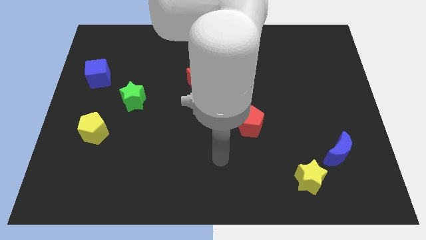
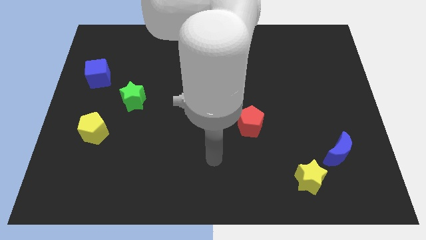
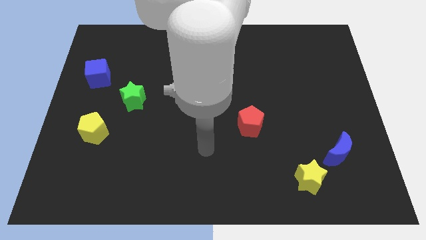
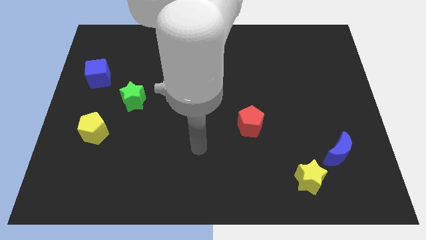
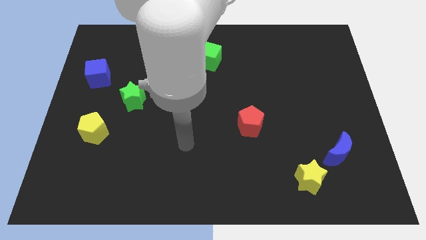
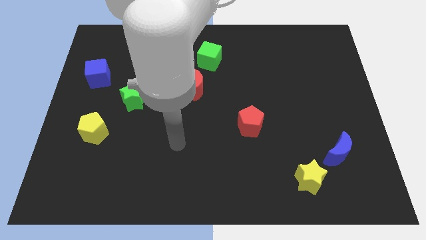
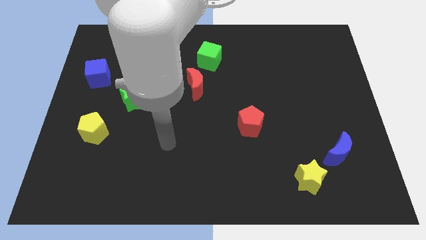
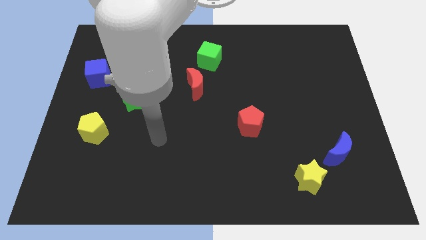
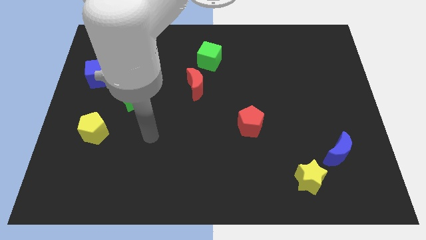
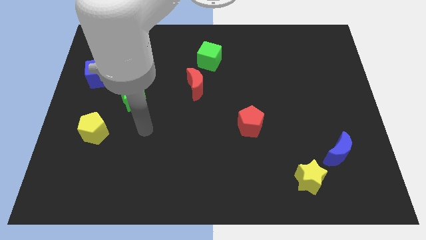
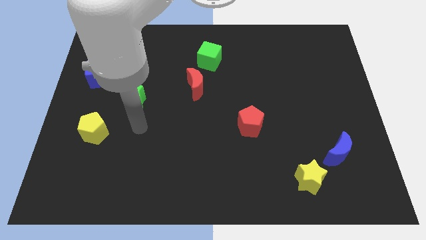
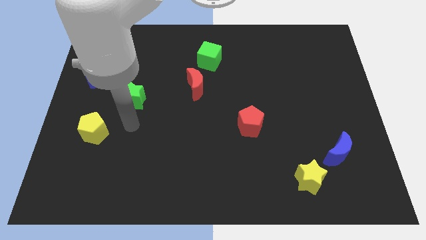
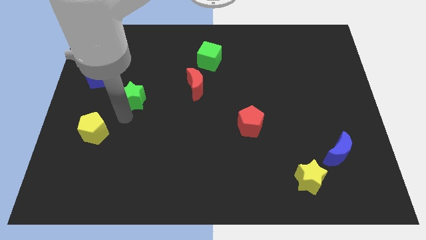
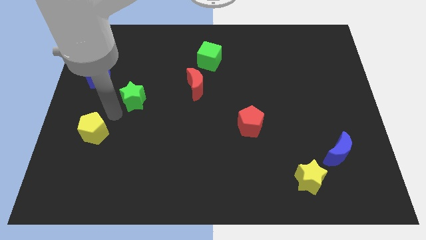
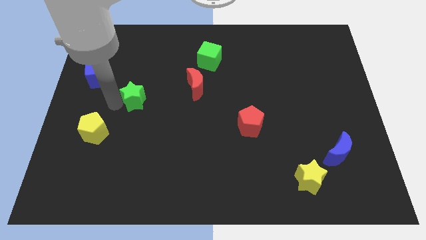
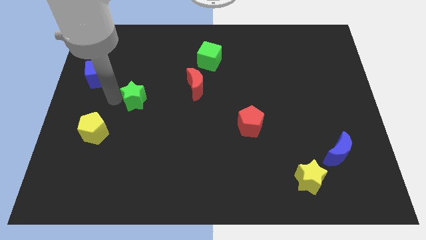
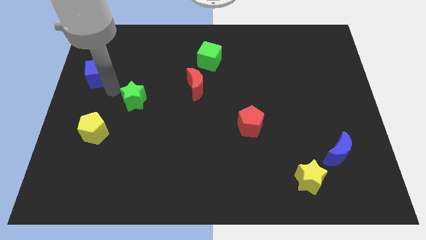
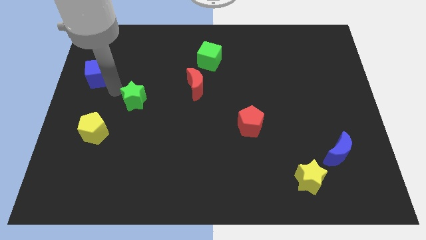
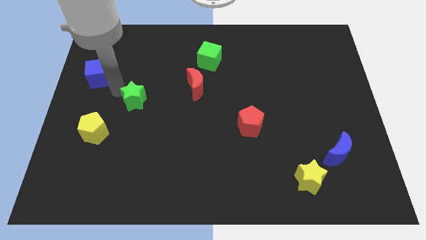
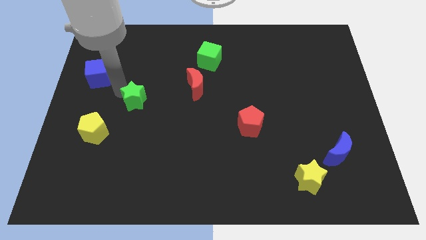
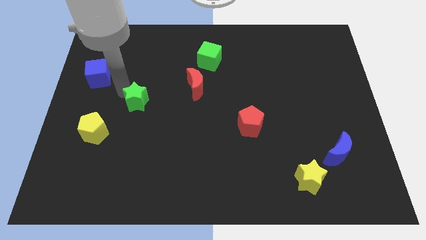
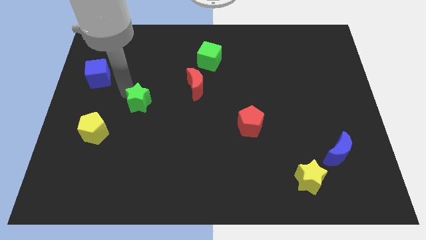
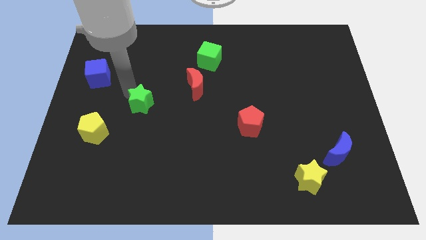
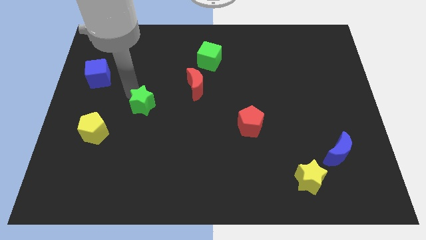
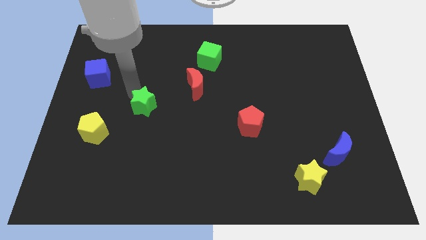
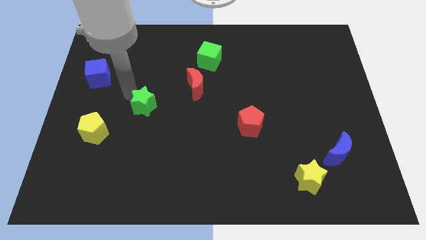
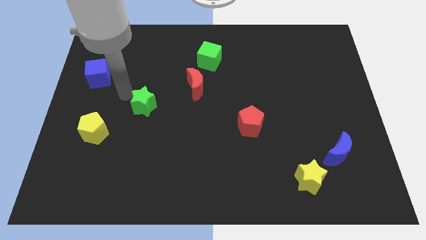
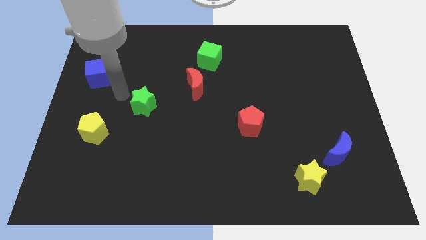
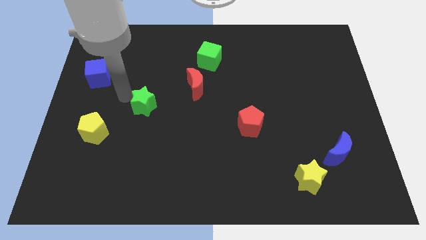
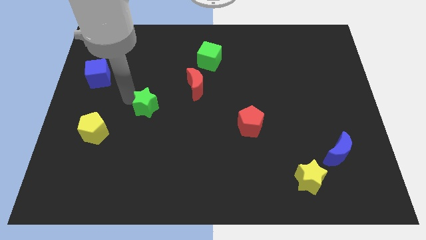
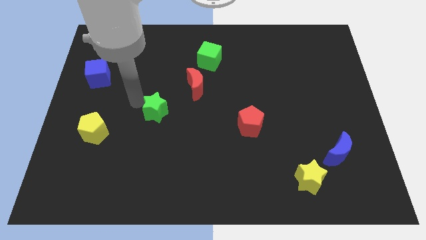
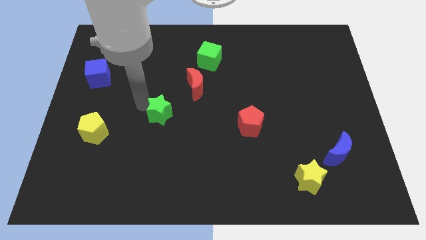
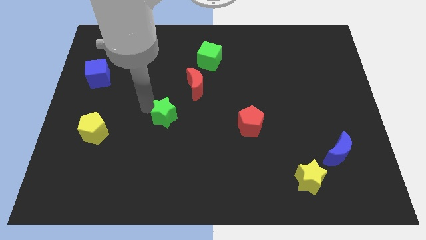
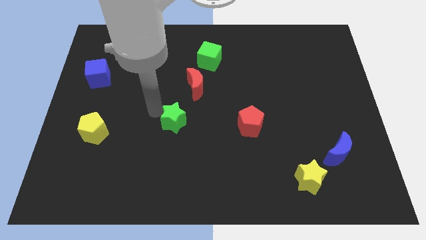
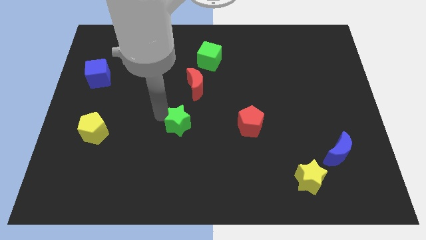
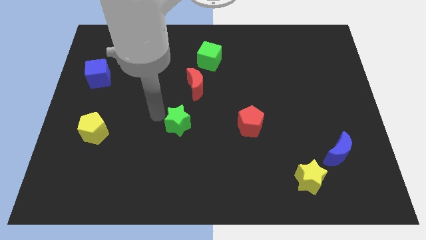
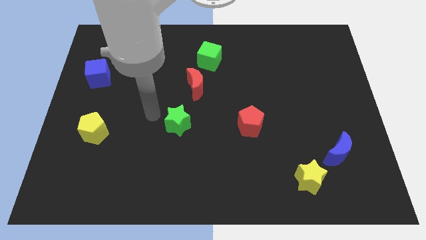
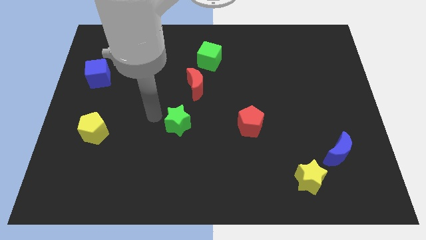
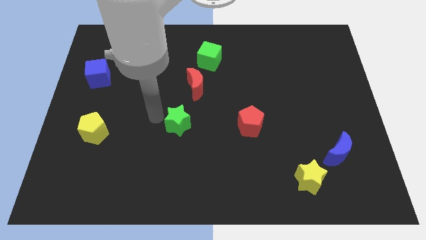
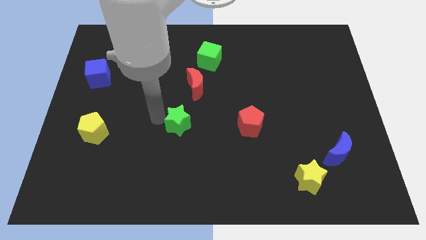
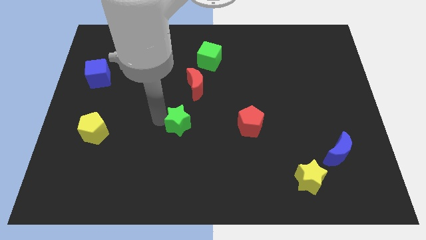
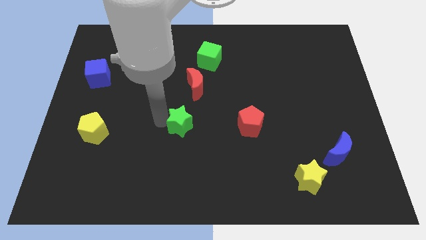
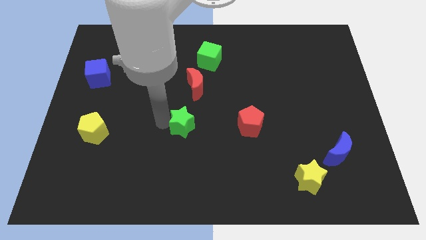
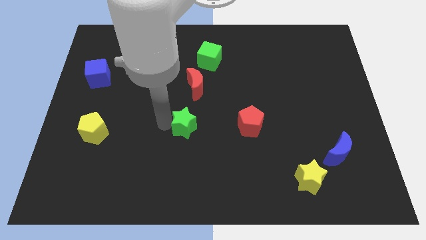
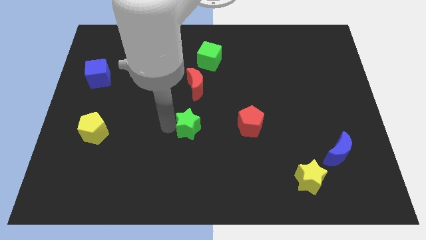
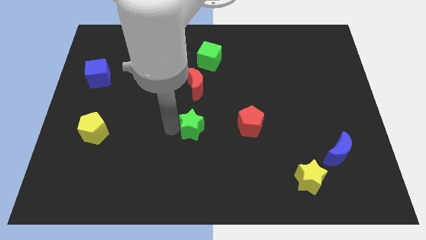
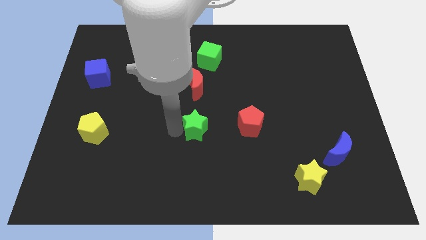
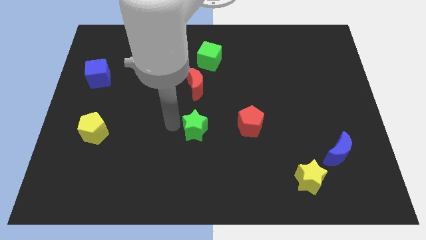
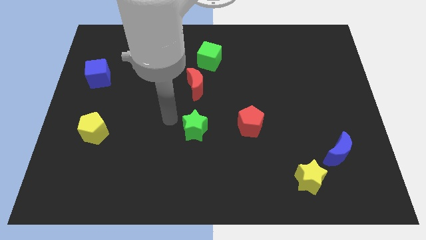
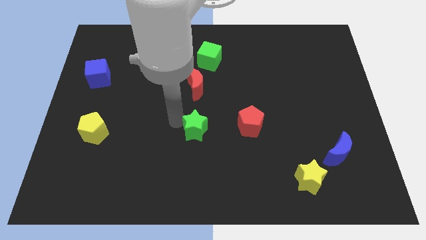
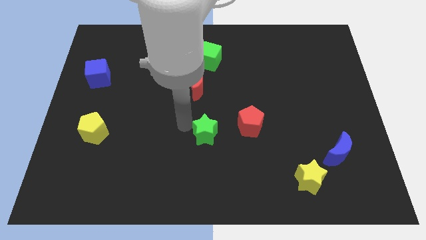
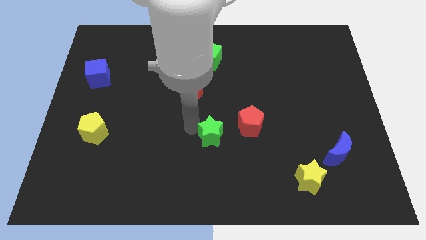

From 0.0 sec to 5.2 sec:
slide the green star to the bottom left of the red pentagon

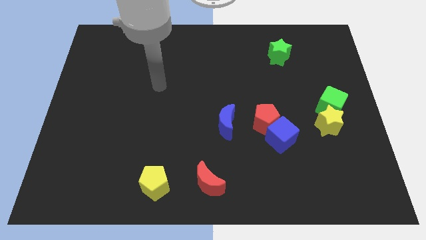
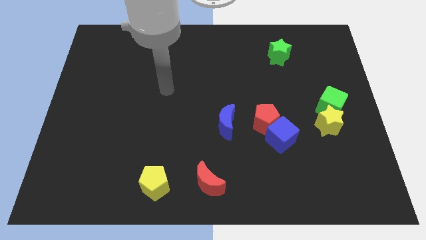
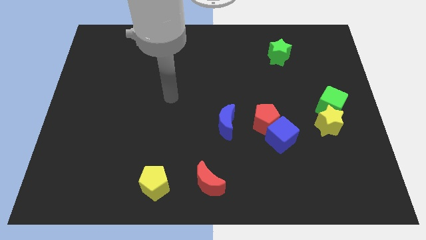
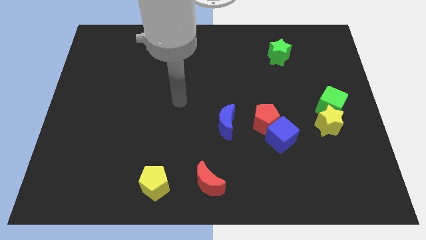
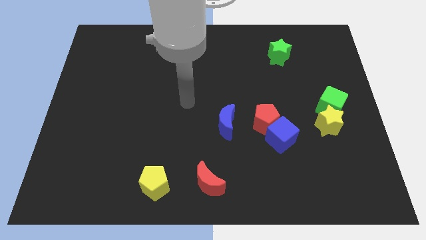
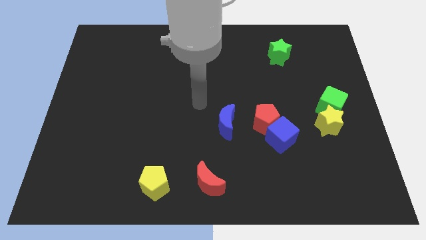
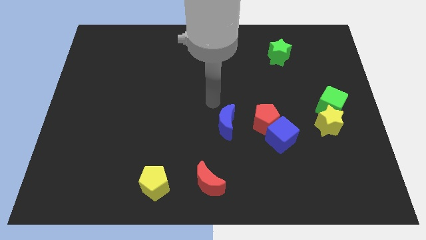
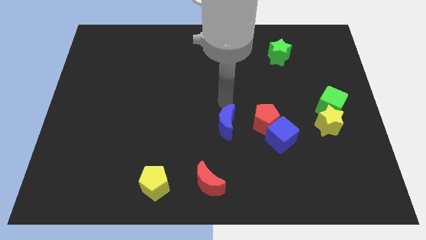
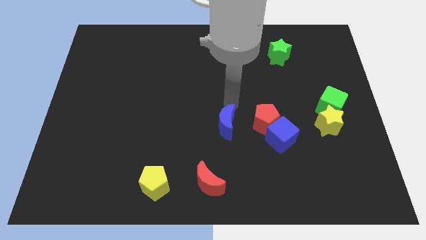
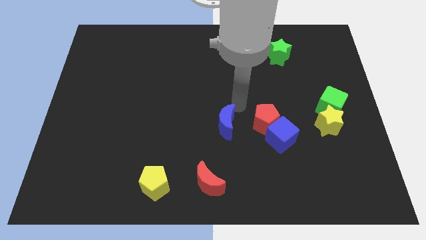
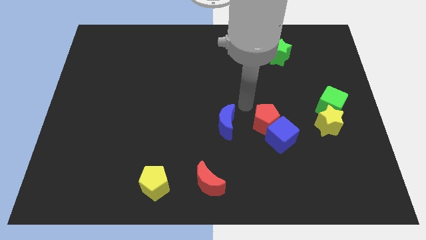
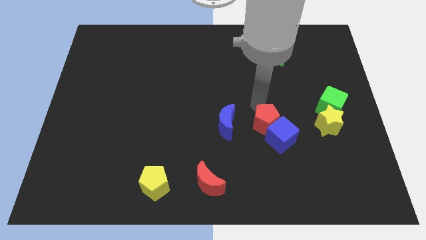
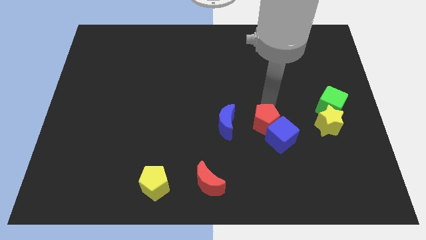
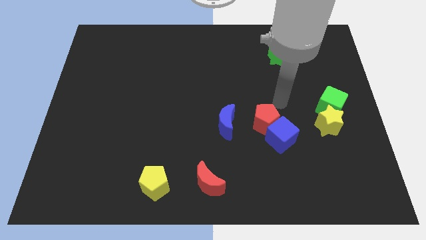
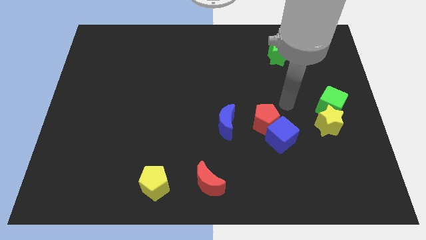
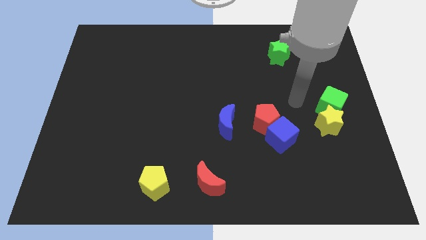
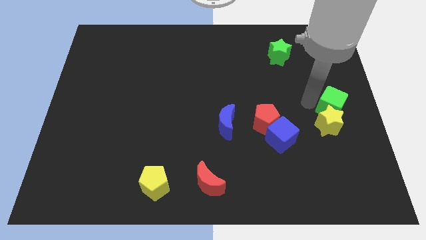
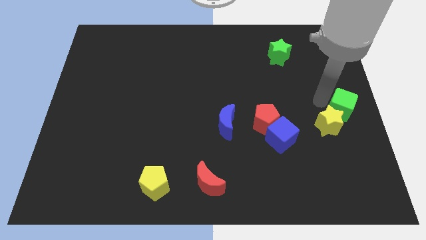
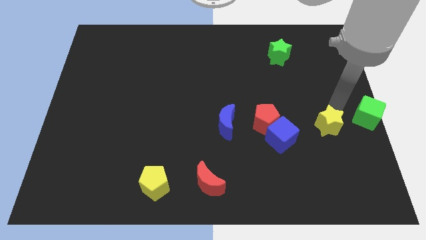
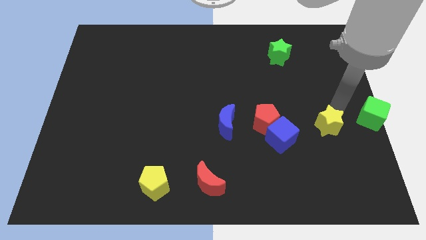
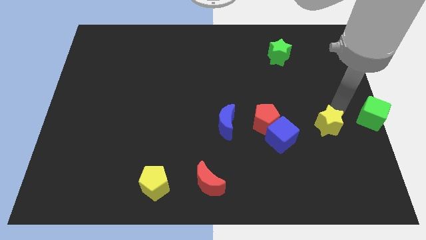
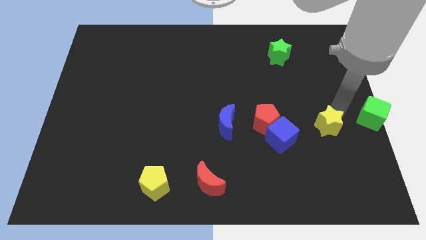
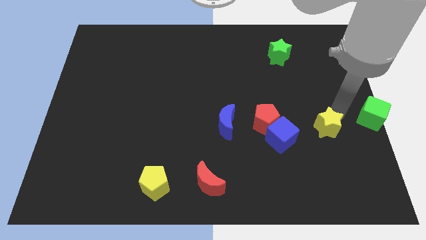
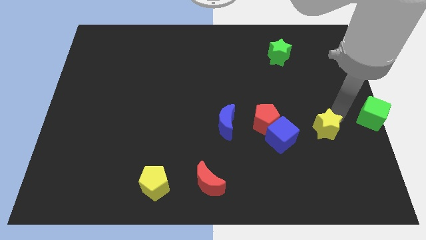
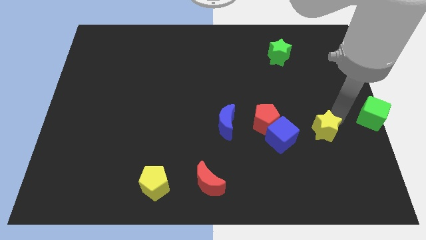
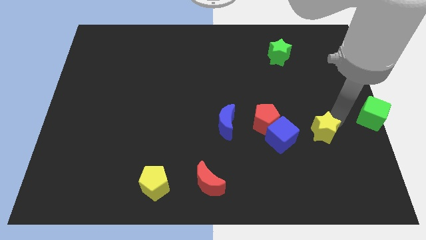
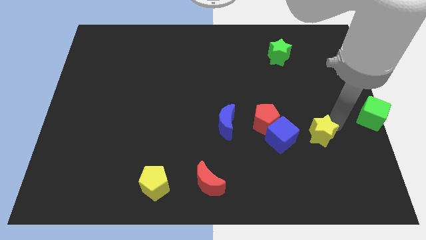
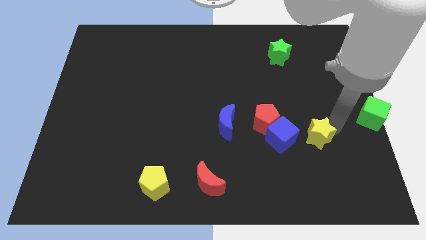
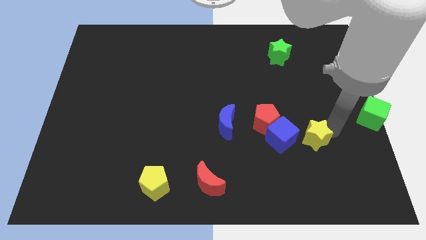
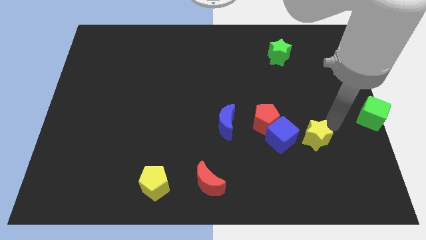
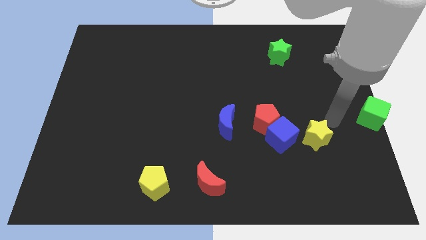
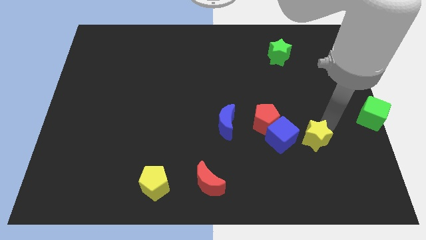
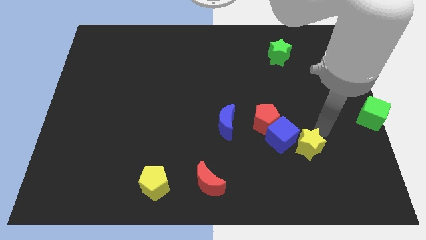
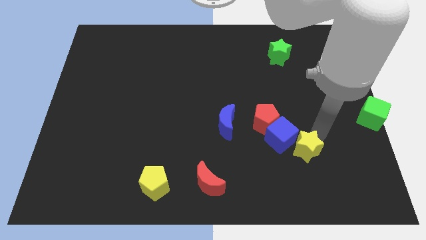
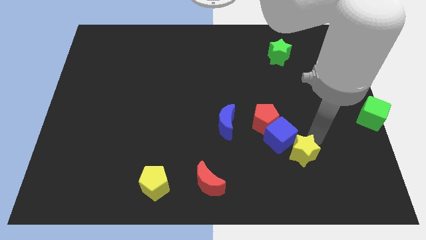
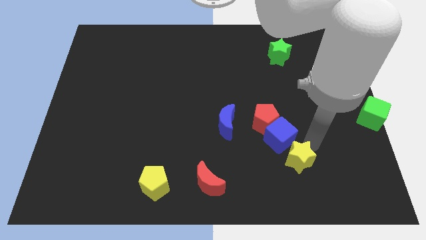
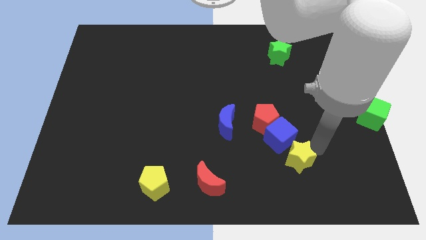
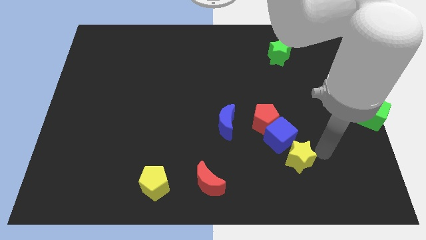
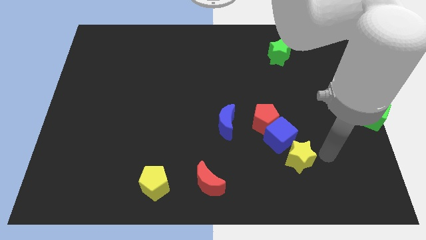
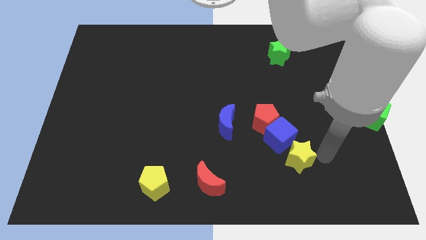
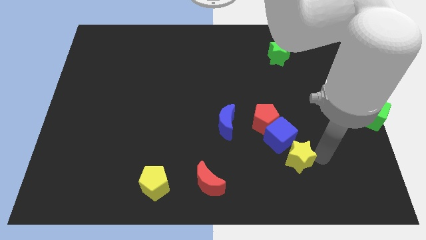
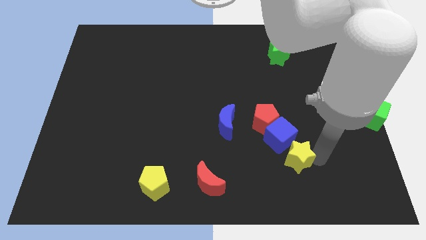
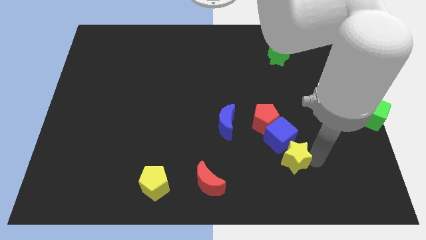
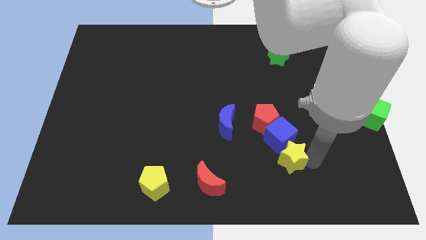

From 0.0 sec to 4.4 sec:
put the yellow star to the bottom side of the red pentagon
